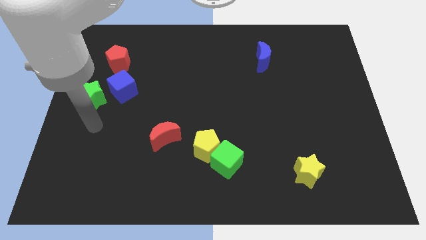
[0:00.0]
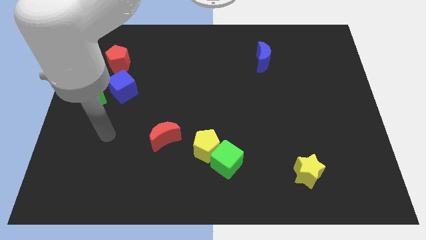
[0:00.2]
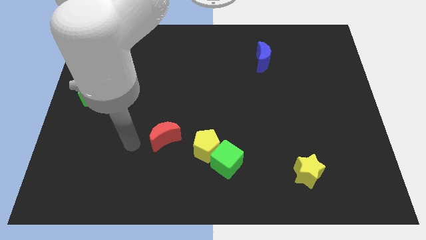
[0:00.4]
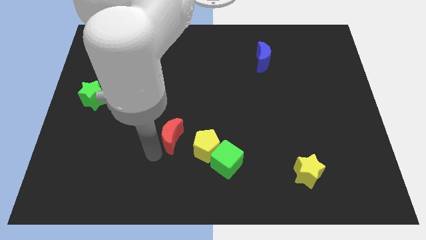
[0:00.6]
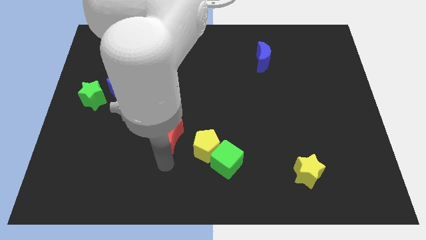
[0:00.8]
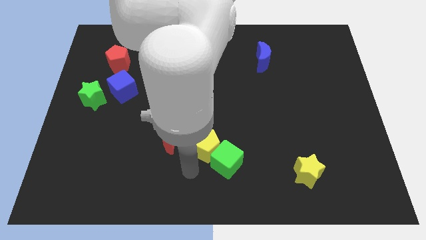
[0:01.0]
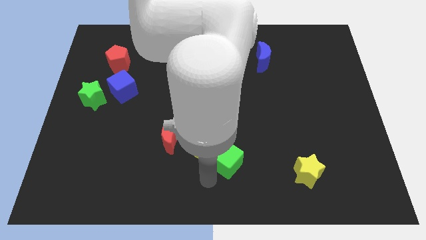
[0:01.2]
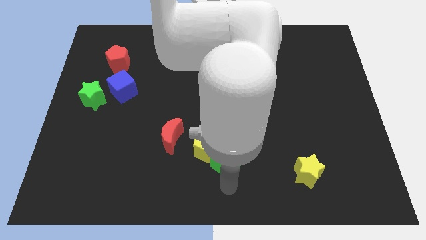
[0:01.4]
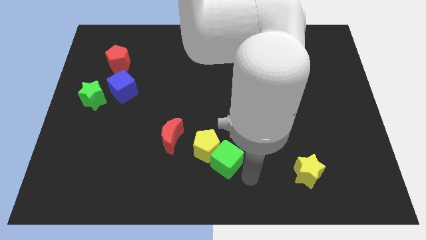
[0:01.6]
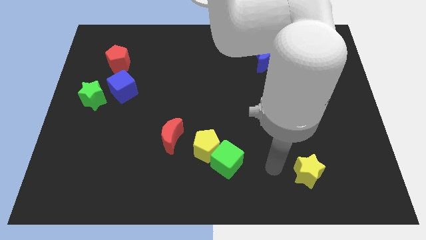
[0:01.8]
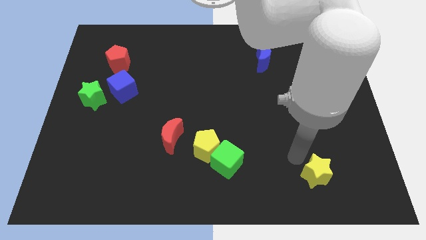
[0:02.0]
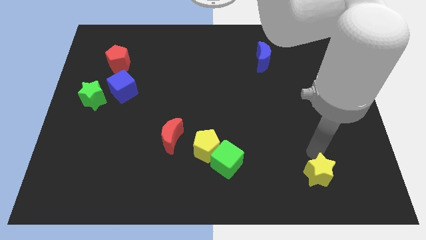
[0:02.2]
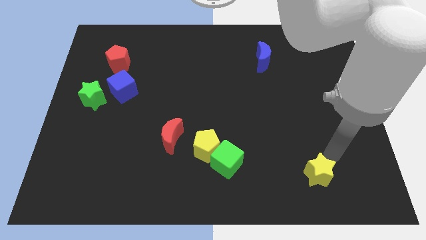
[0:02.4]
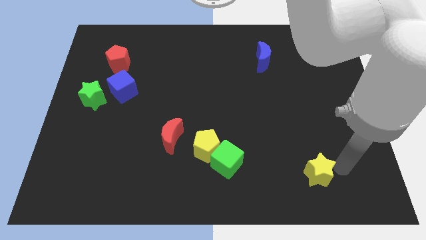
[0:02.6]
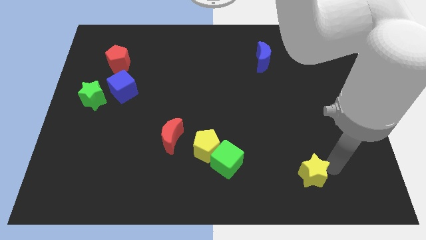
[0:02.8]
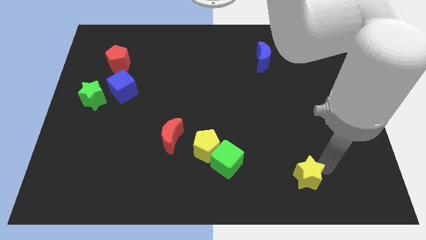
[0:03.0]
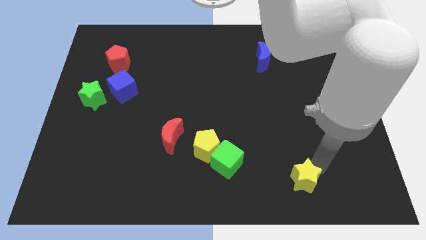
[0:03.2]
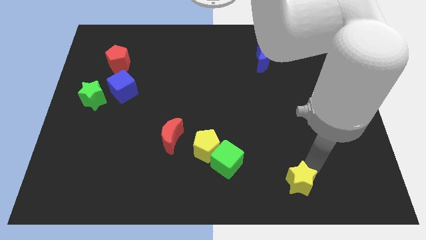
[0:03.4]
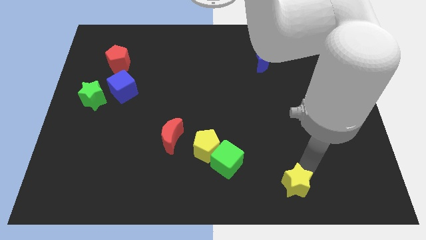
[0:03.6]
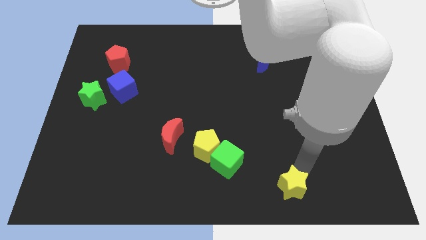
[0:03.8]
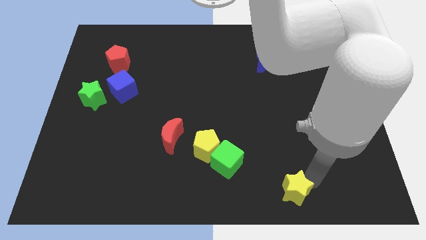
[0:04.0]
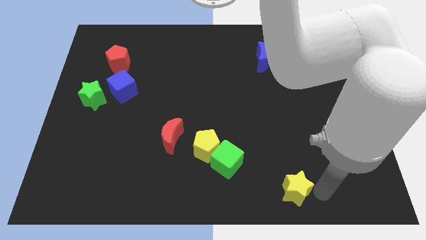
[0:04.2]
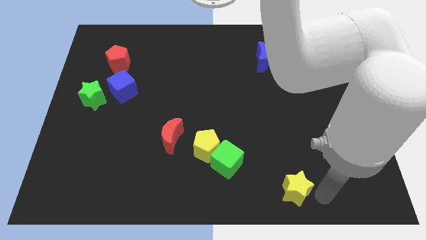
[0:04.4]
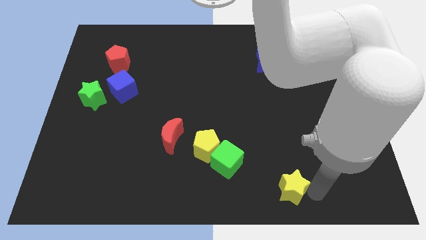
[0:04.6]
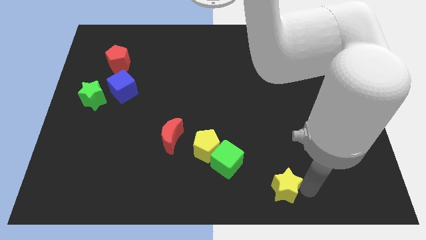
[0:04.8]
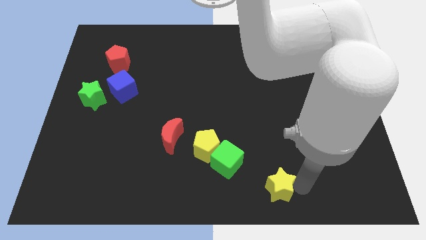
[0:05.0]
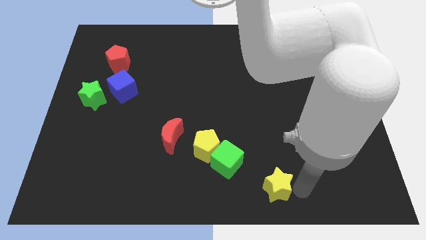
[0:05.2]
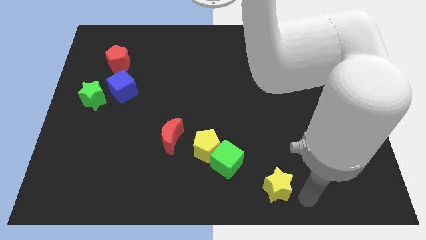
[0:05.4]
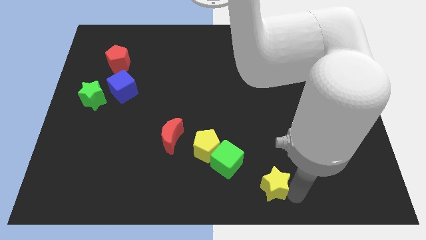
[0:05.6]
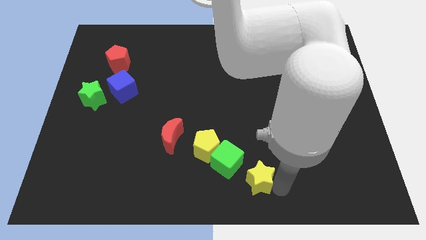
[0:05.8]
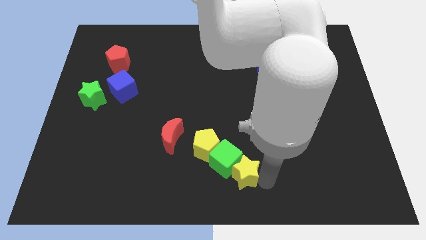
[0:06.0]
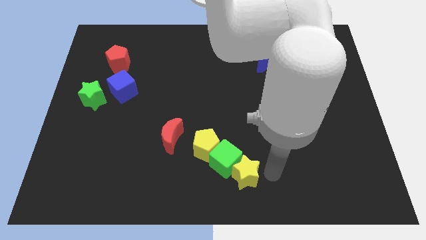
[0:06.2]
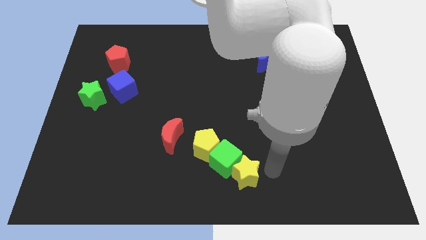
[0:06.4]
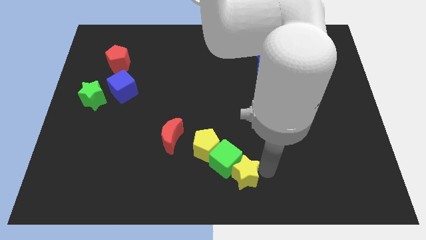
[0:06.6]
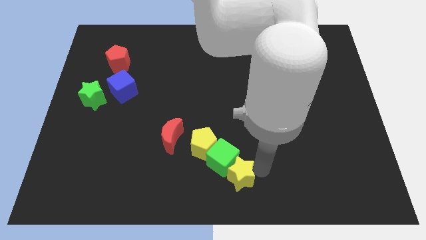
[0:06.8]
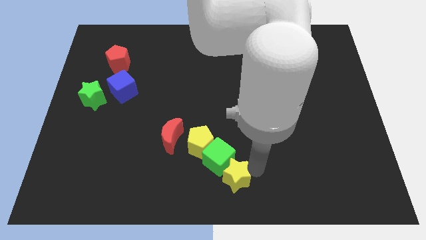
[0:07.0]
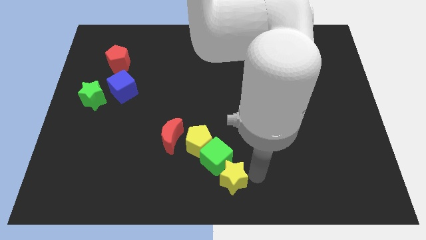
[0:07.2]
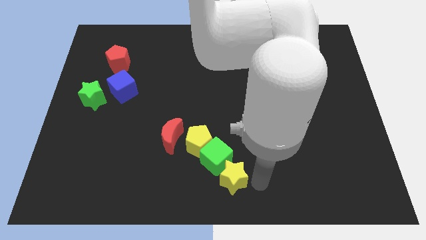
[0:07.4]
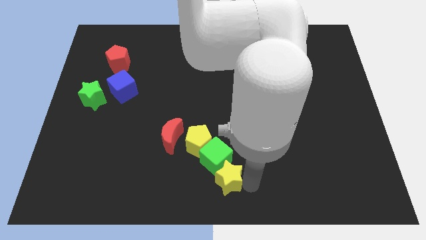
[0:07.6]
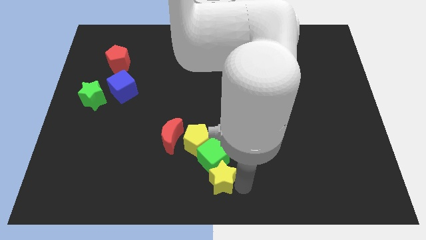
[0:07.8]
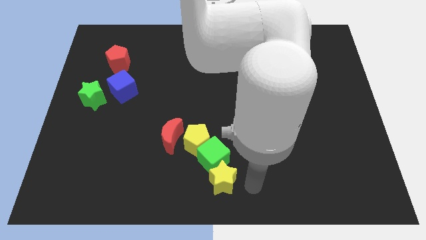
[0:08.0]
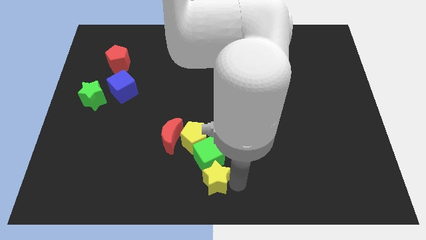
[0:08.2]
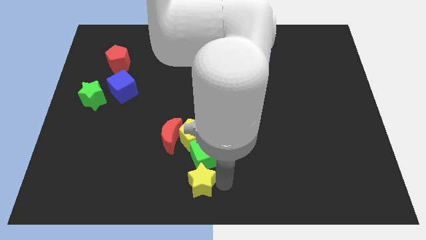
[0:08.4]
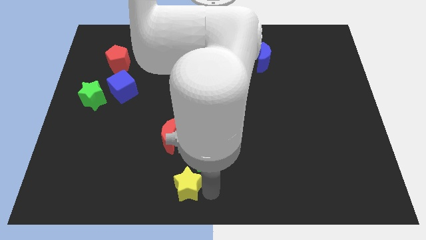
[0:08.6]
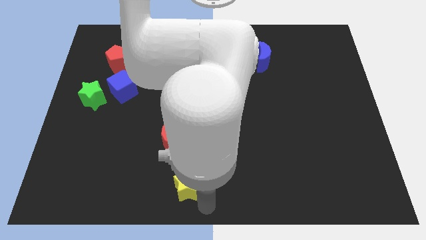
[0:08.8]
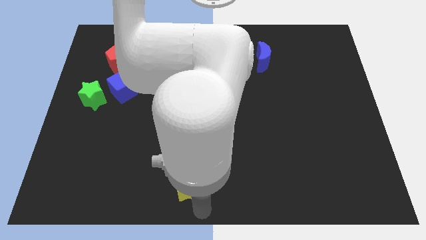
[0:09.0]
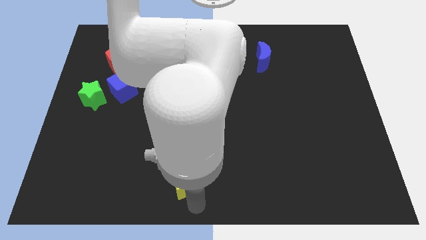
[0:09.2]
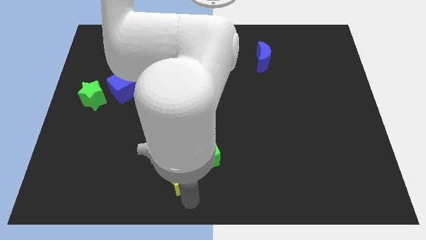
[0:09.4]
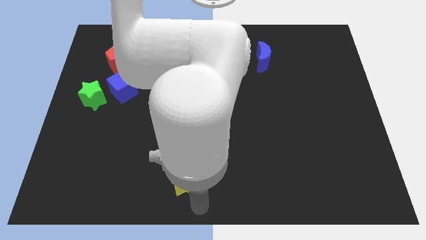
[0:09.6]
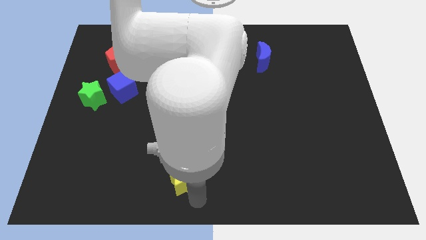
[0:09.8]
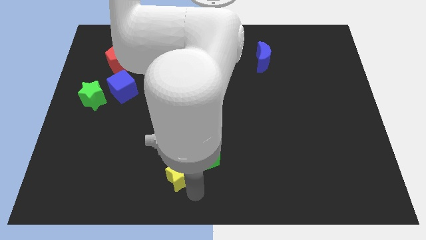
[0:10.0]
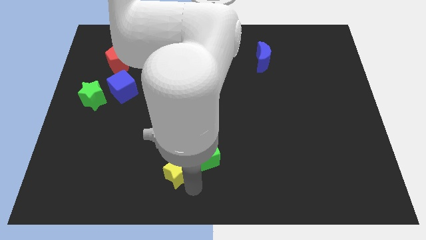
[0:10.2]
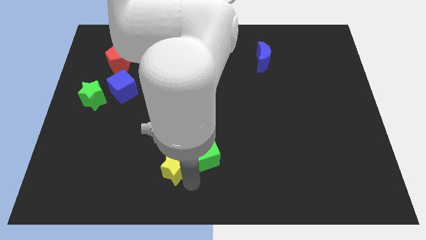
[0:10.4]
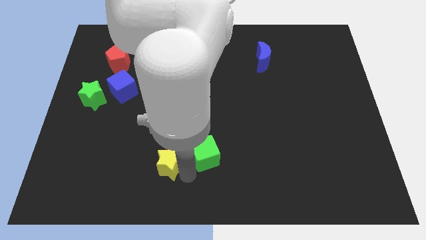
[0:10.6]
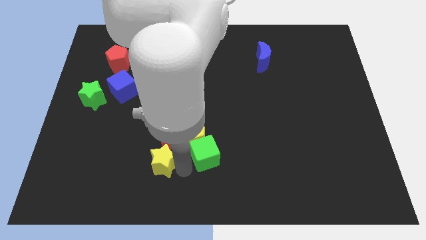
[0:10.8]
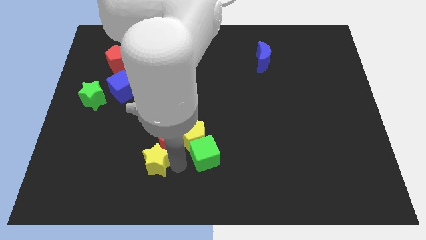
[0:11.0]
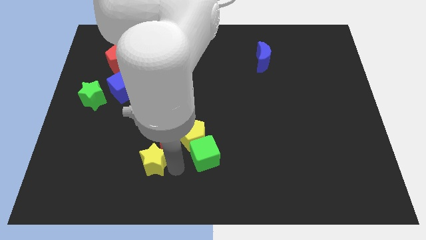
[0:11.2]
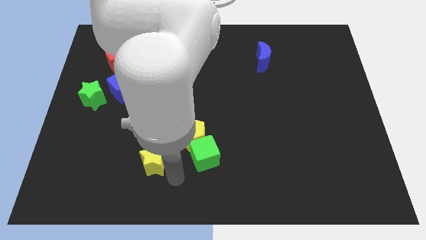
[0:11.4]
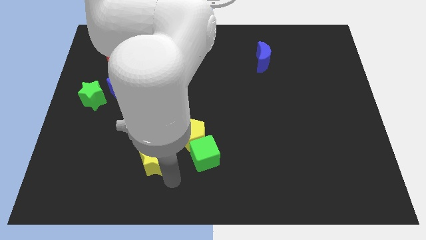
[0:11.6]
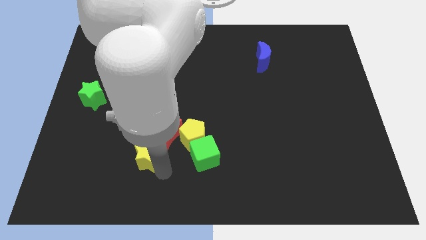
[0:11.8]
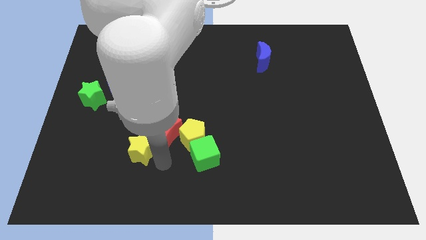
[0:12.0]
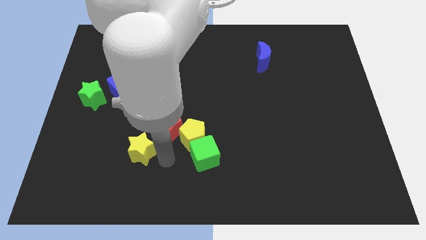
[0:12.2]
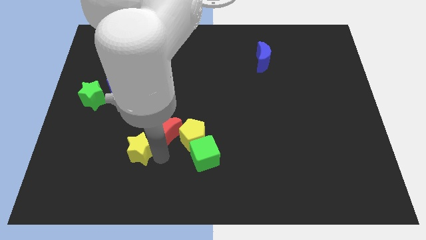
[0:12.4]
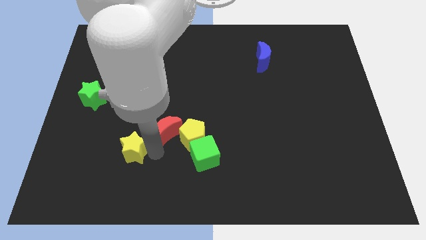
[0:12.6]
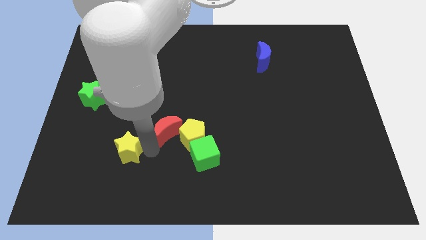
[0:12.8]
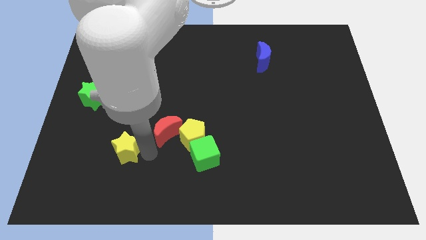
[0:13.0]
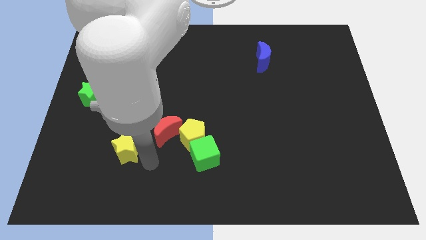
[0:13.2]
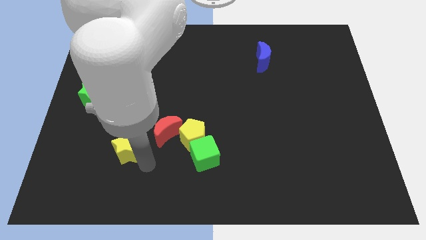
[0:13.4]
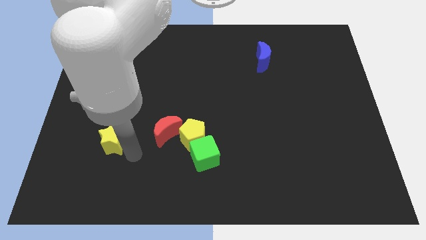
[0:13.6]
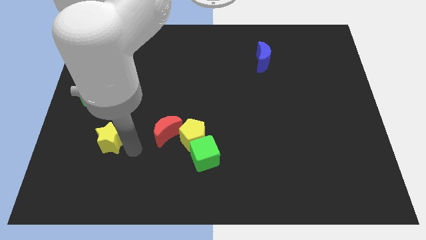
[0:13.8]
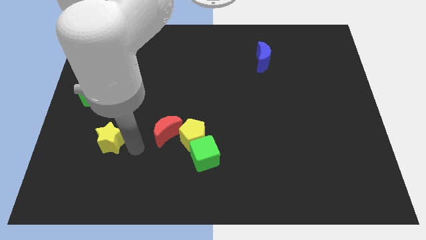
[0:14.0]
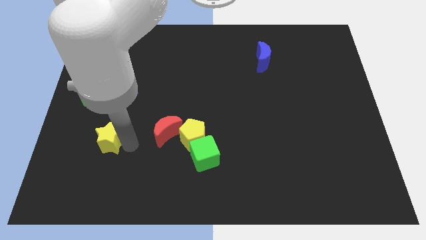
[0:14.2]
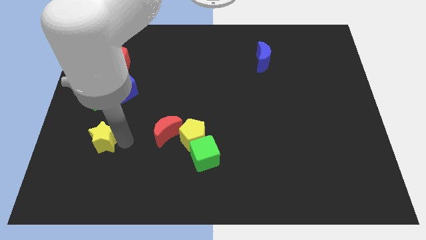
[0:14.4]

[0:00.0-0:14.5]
put the yellow star below the green star

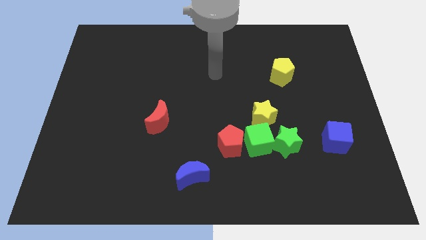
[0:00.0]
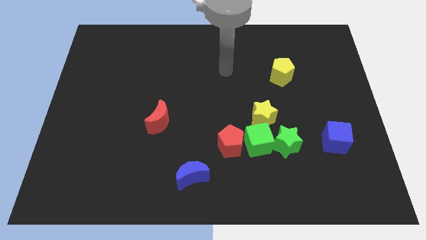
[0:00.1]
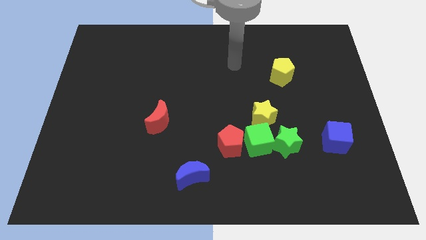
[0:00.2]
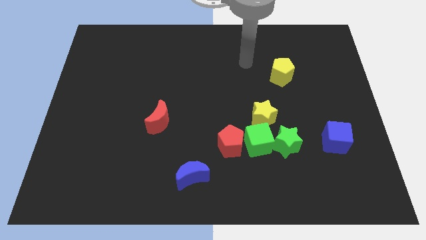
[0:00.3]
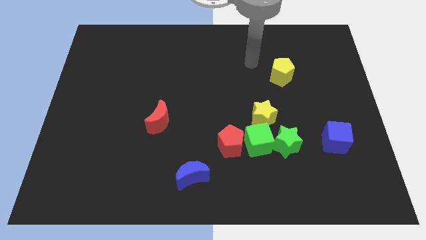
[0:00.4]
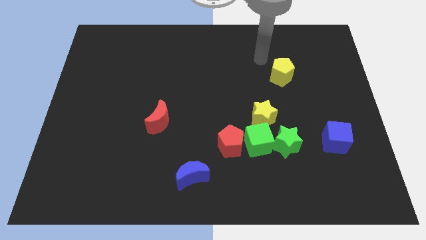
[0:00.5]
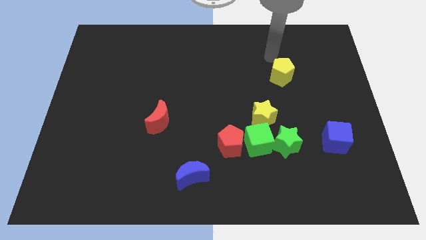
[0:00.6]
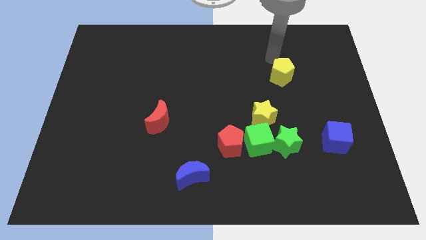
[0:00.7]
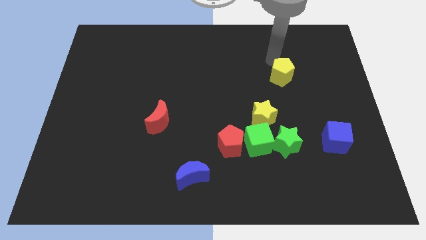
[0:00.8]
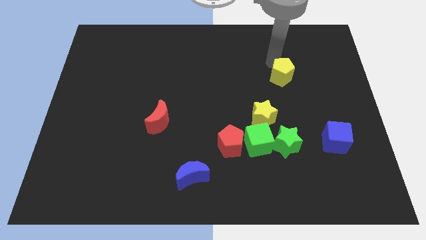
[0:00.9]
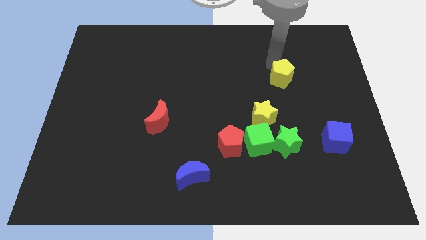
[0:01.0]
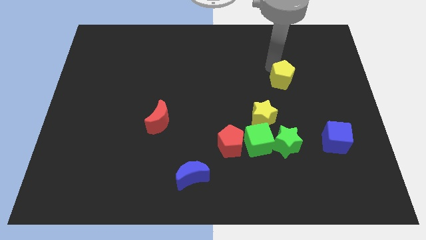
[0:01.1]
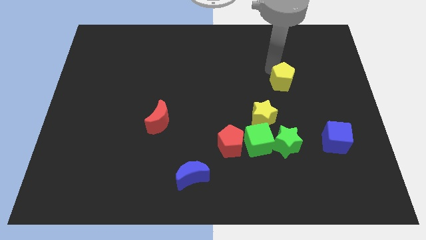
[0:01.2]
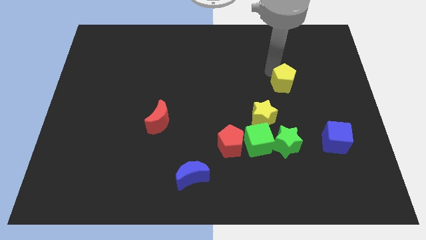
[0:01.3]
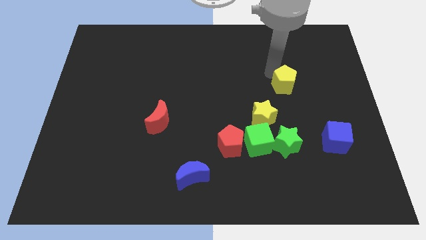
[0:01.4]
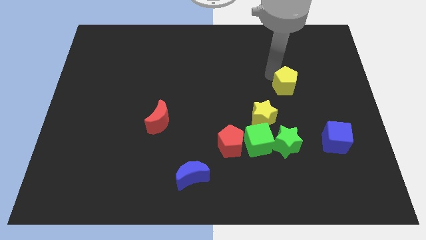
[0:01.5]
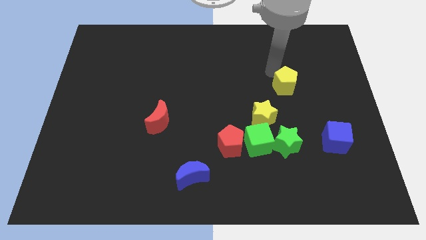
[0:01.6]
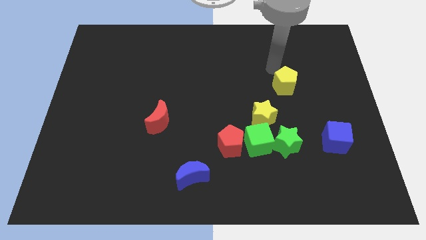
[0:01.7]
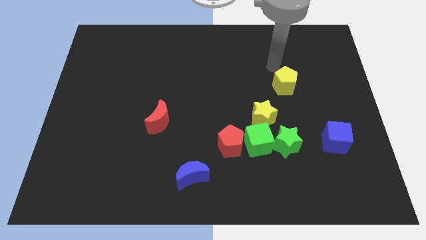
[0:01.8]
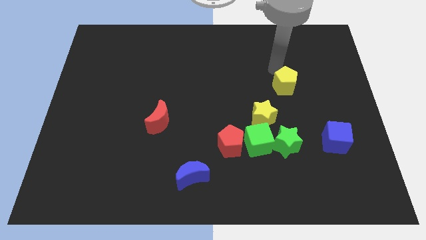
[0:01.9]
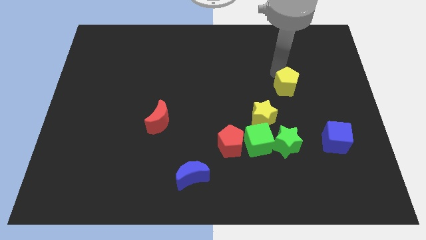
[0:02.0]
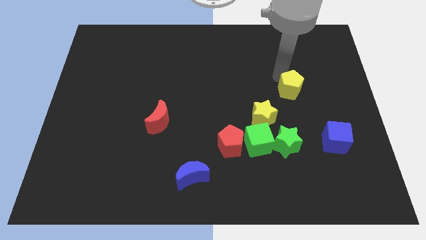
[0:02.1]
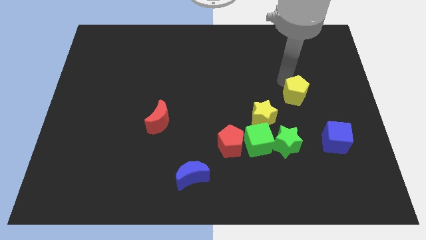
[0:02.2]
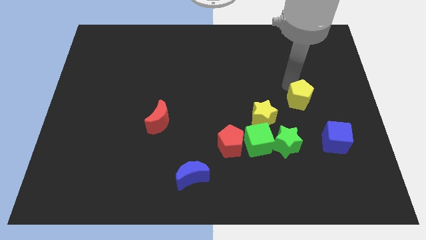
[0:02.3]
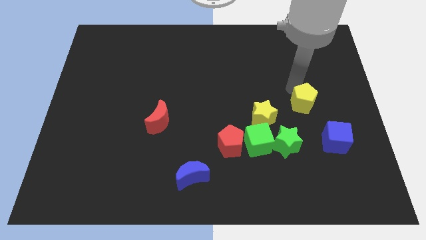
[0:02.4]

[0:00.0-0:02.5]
put the yellow pentagon to the right of the yellow star
